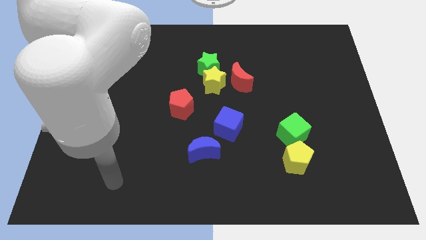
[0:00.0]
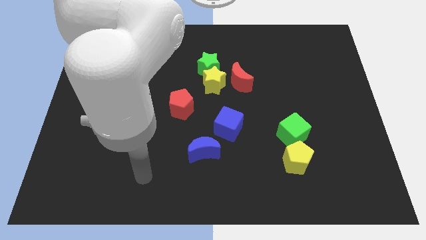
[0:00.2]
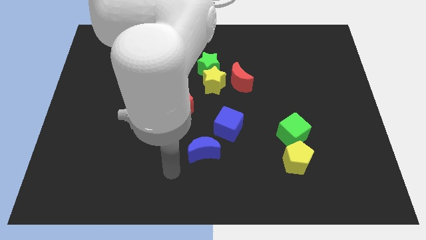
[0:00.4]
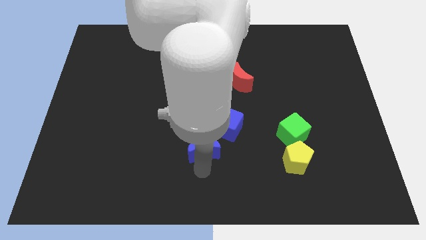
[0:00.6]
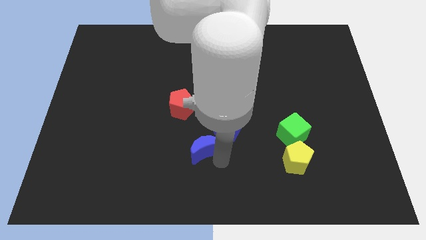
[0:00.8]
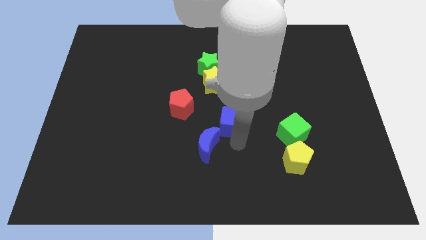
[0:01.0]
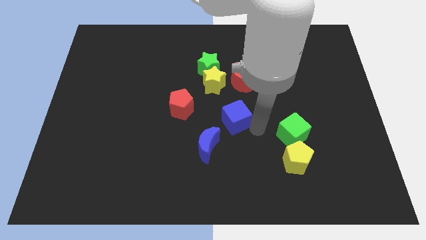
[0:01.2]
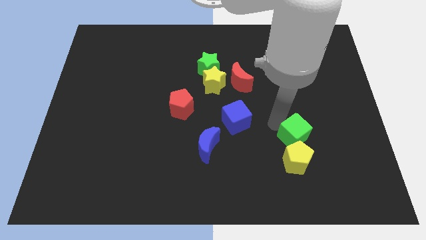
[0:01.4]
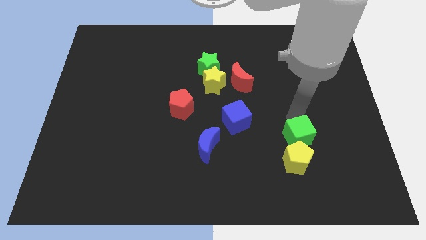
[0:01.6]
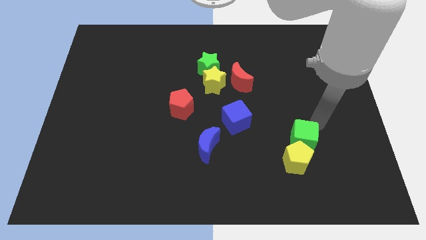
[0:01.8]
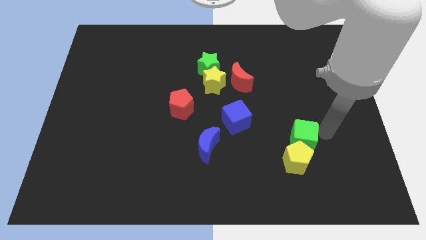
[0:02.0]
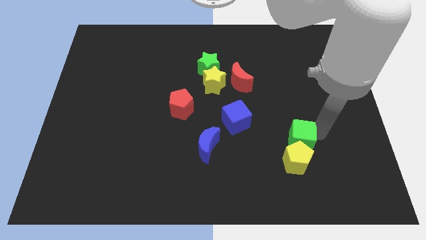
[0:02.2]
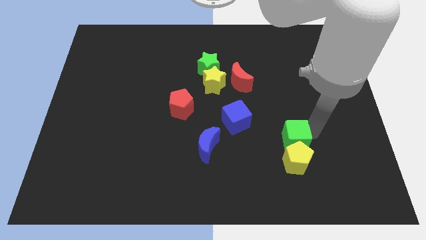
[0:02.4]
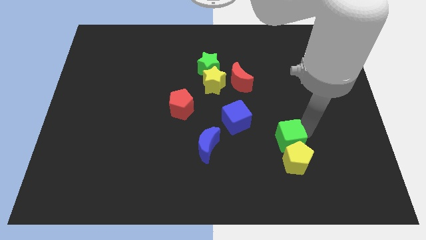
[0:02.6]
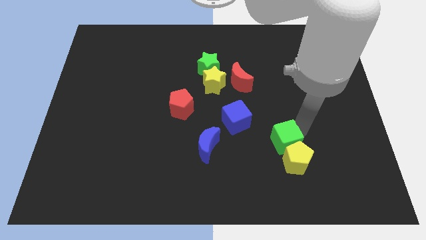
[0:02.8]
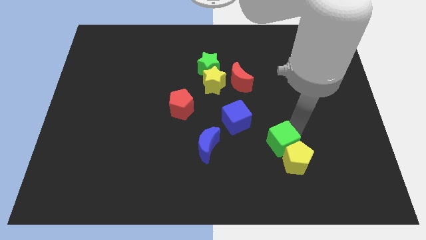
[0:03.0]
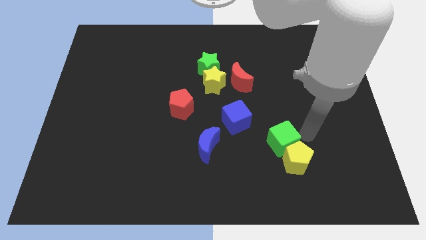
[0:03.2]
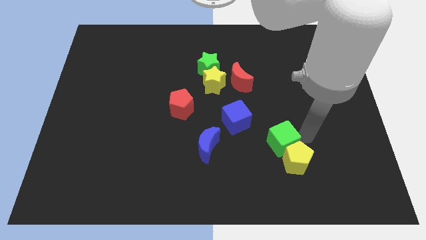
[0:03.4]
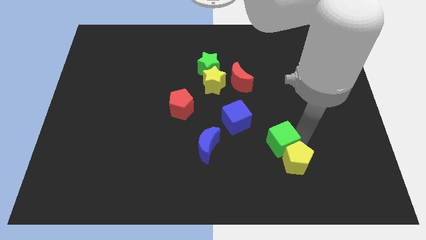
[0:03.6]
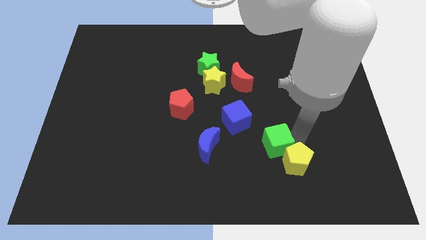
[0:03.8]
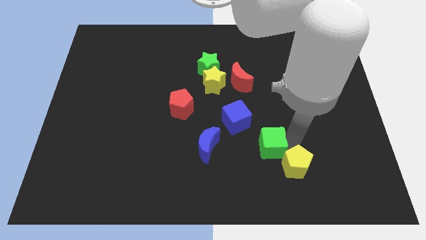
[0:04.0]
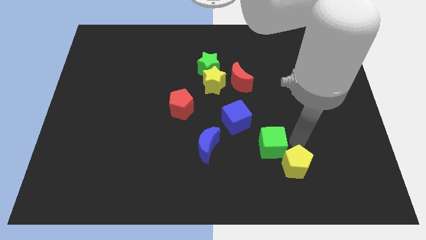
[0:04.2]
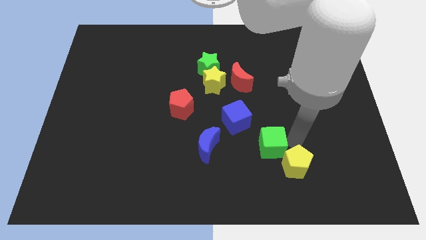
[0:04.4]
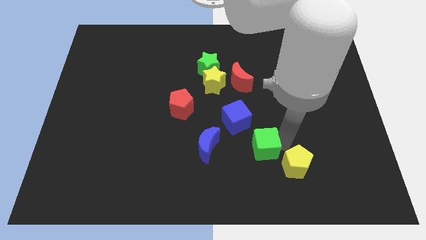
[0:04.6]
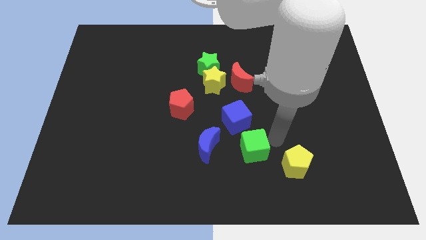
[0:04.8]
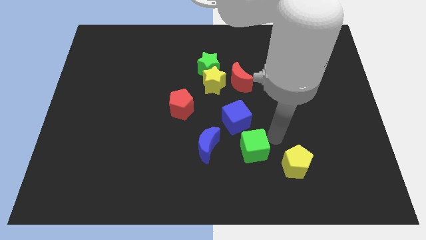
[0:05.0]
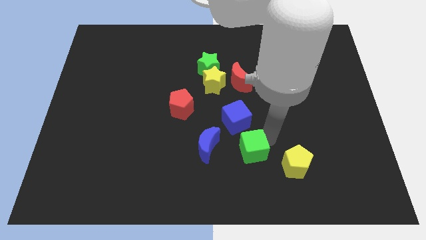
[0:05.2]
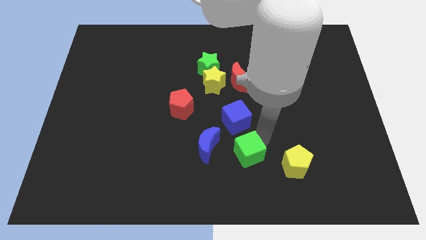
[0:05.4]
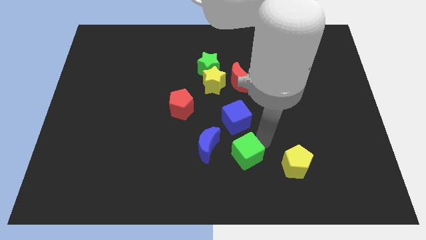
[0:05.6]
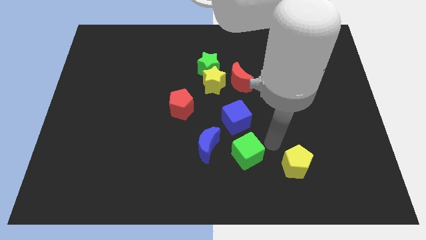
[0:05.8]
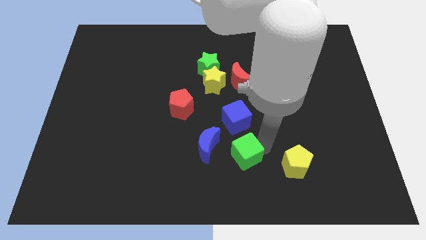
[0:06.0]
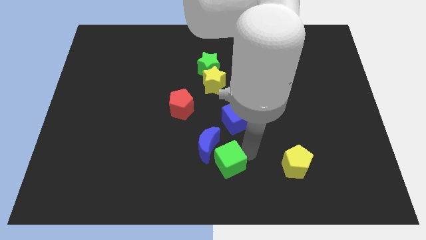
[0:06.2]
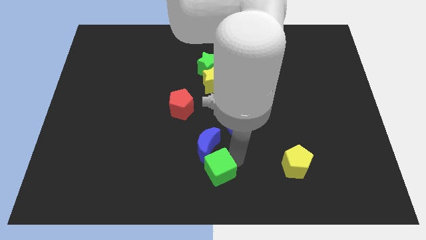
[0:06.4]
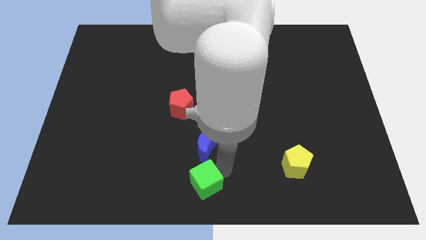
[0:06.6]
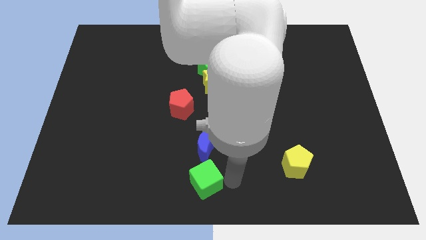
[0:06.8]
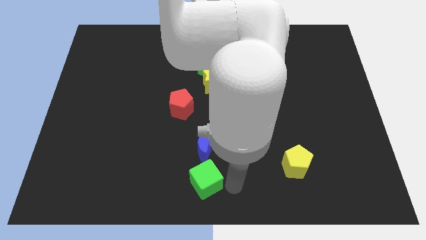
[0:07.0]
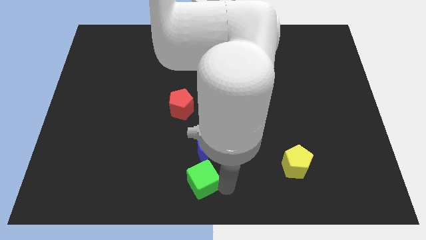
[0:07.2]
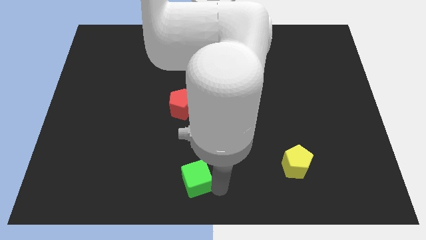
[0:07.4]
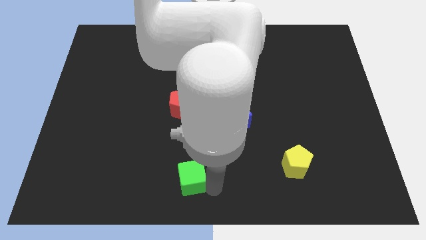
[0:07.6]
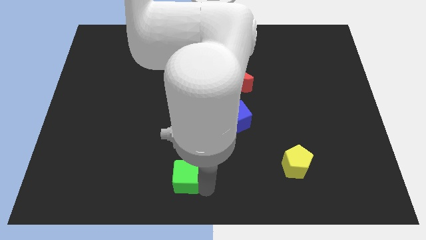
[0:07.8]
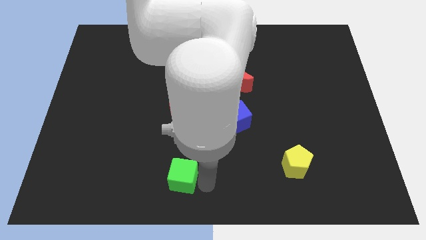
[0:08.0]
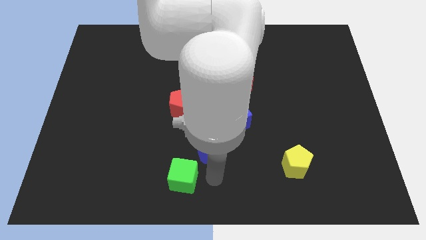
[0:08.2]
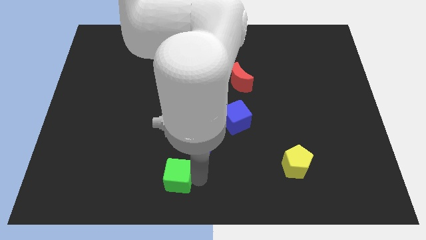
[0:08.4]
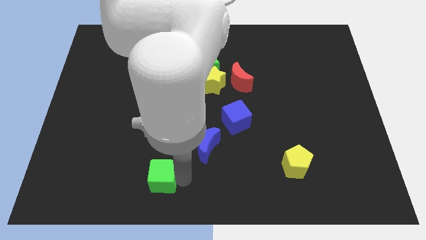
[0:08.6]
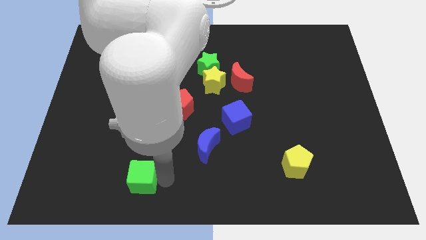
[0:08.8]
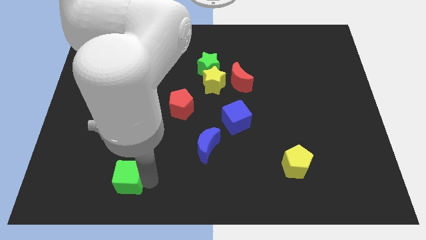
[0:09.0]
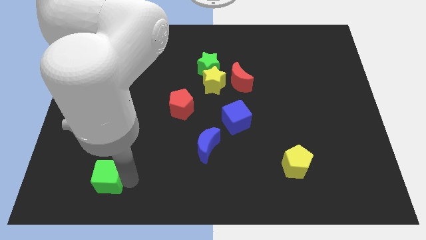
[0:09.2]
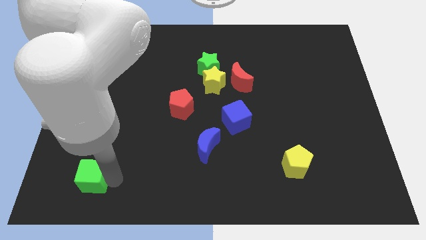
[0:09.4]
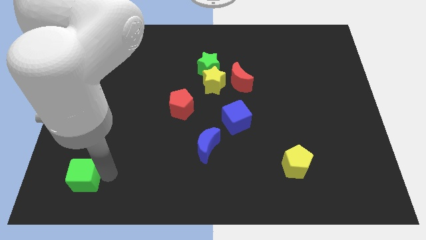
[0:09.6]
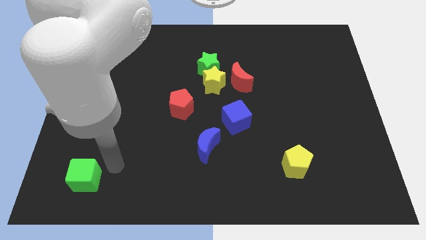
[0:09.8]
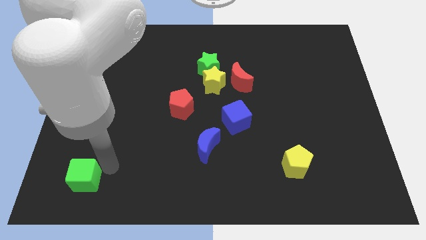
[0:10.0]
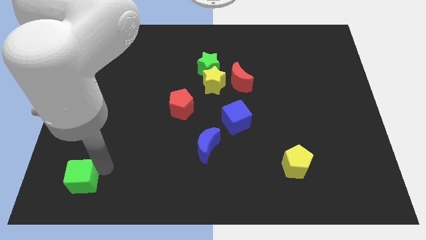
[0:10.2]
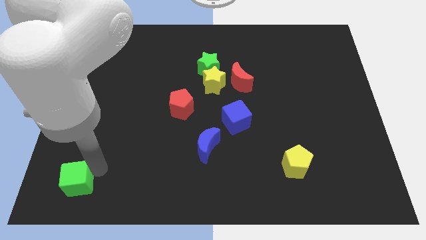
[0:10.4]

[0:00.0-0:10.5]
put the green cube to the bottom left of the board

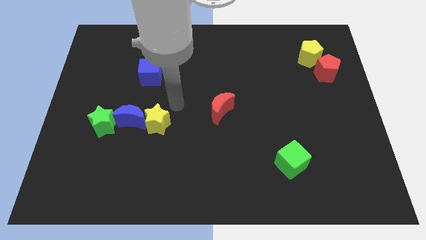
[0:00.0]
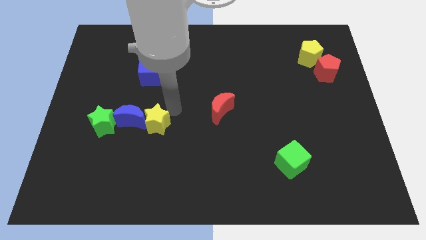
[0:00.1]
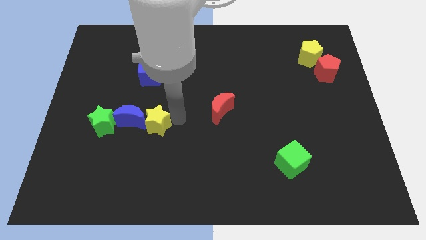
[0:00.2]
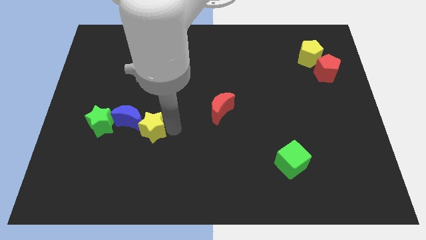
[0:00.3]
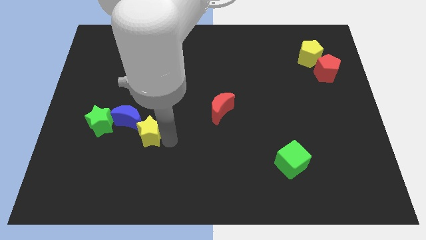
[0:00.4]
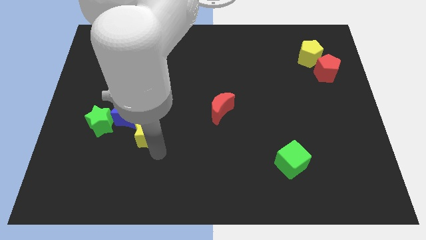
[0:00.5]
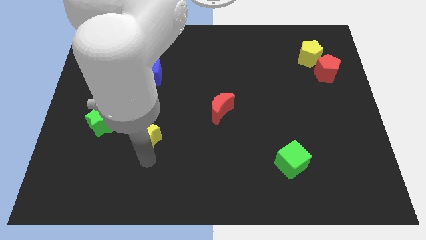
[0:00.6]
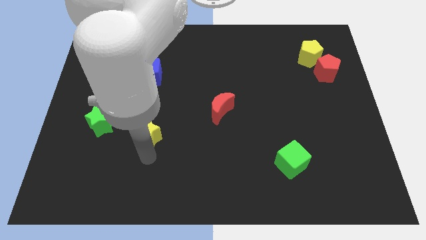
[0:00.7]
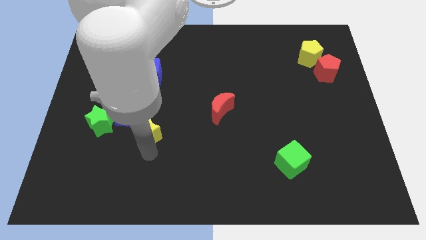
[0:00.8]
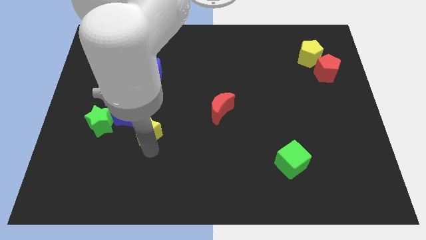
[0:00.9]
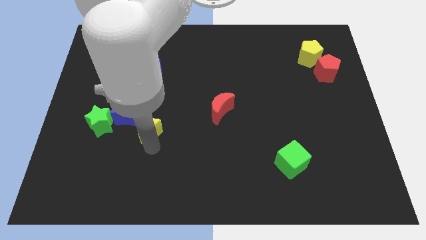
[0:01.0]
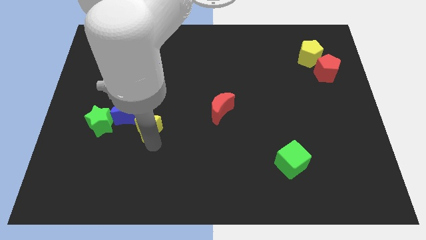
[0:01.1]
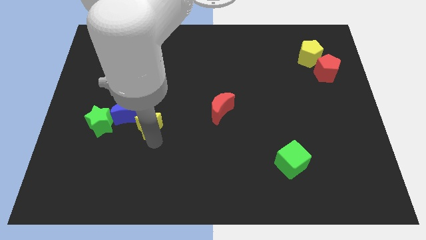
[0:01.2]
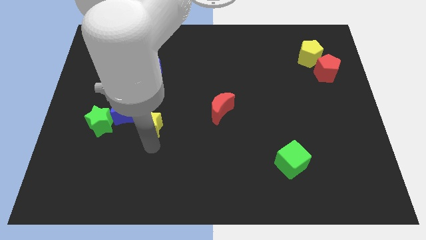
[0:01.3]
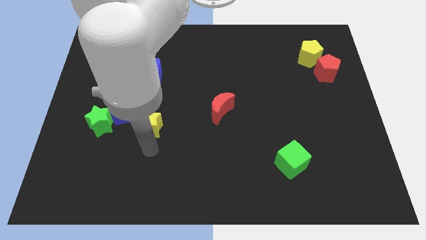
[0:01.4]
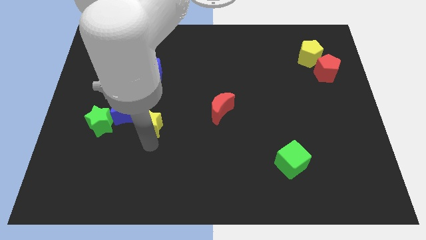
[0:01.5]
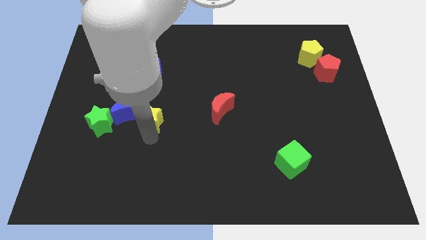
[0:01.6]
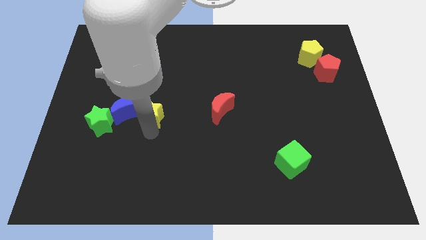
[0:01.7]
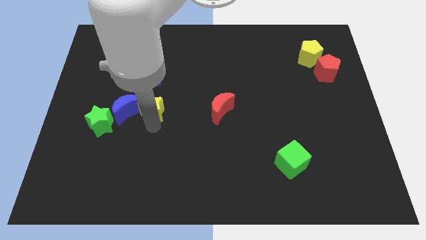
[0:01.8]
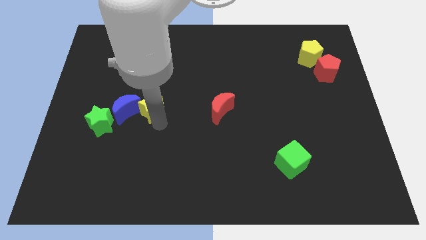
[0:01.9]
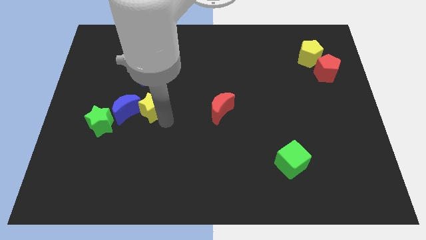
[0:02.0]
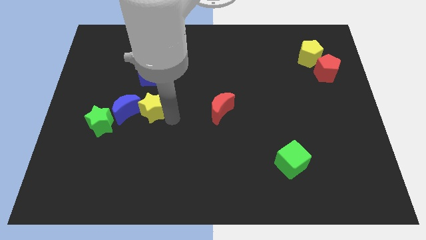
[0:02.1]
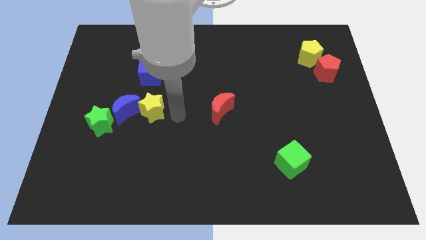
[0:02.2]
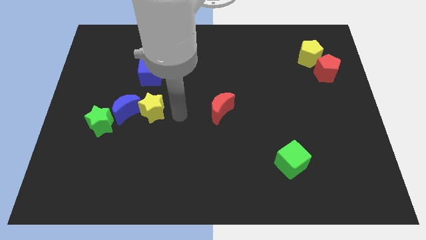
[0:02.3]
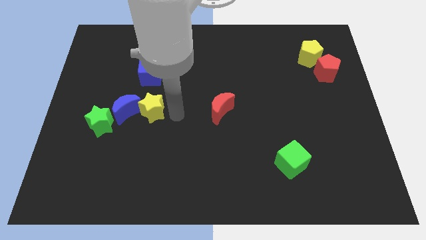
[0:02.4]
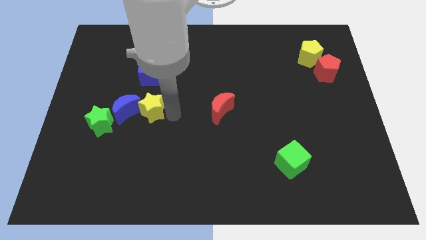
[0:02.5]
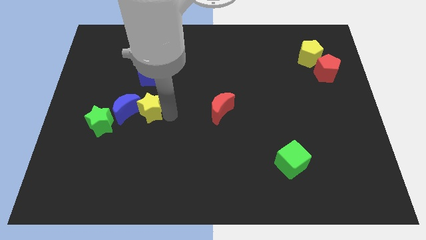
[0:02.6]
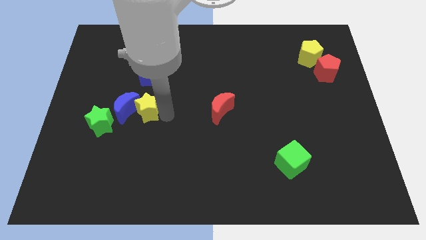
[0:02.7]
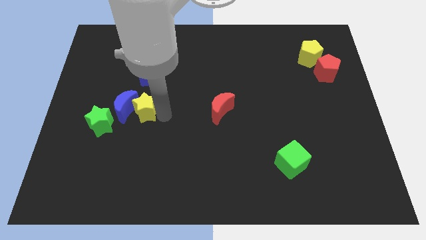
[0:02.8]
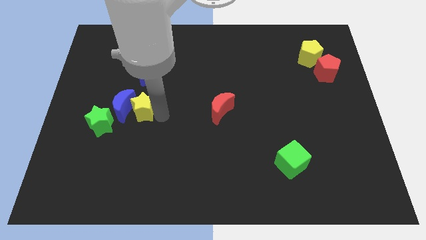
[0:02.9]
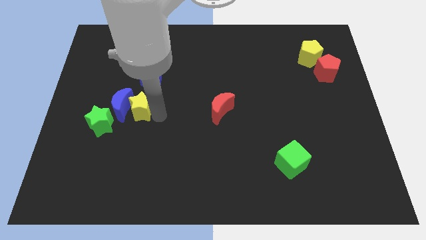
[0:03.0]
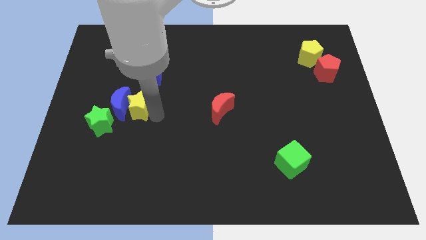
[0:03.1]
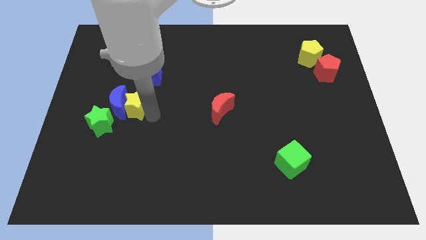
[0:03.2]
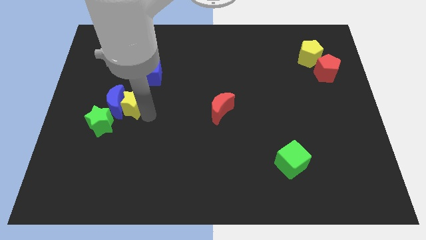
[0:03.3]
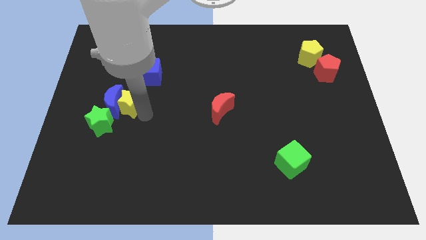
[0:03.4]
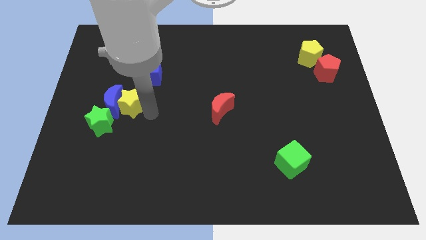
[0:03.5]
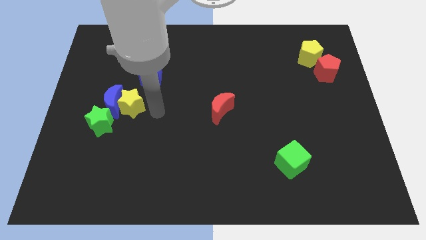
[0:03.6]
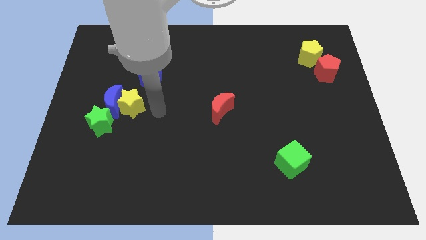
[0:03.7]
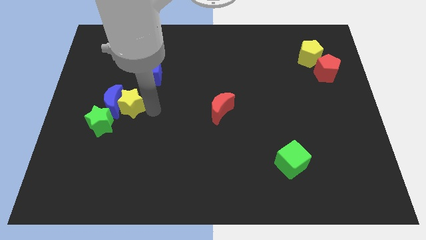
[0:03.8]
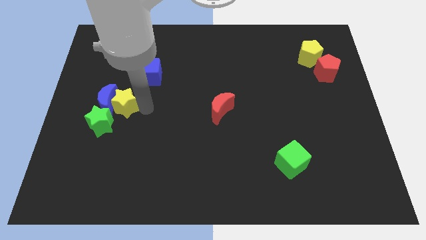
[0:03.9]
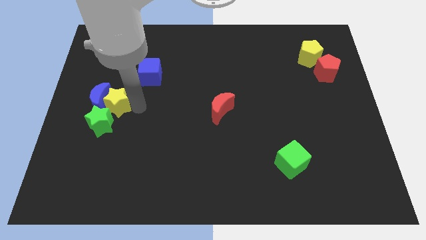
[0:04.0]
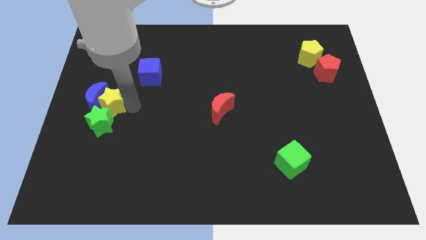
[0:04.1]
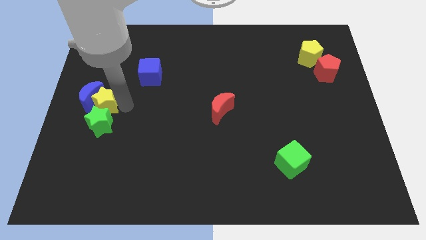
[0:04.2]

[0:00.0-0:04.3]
put the yellow star to the left side of the board
